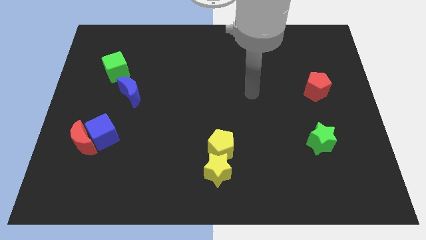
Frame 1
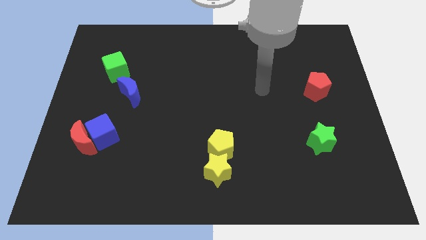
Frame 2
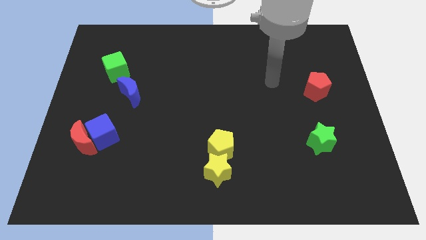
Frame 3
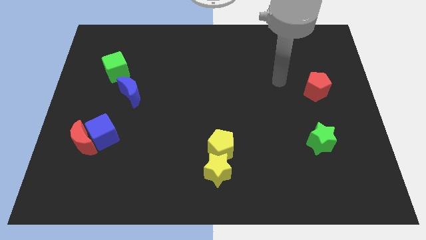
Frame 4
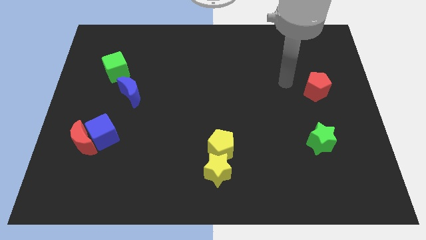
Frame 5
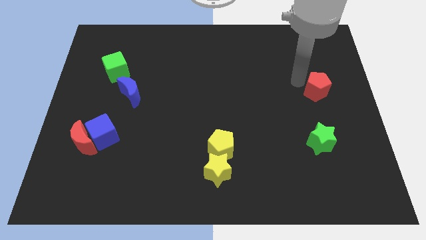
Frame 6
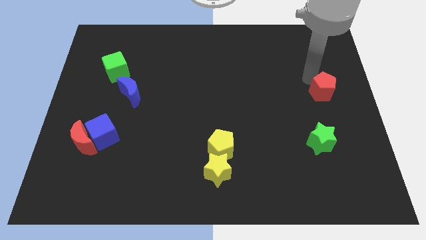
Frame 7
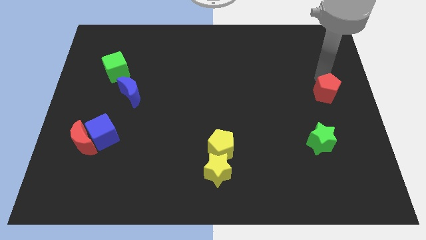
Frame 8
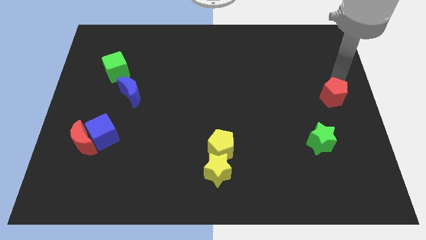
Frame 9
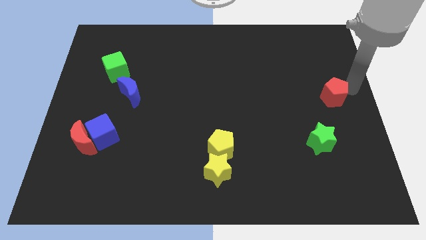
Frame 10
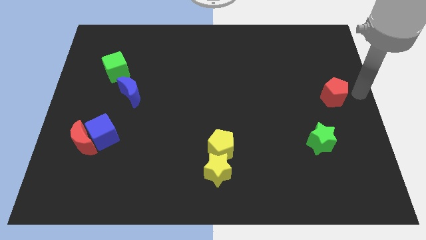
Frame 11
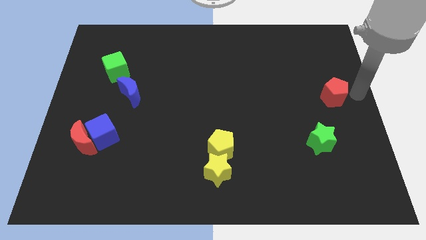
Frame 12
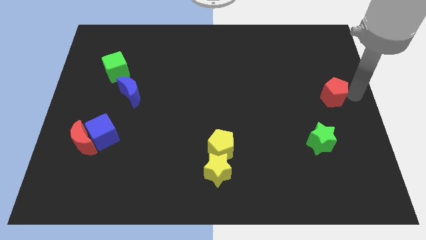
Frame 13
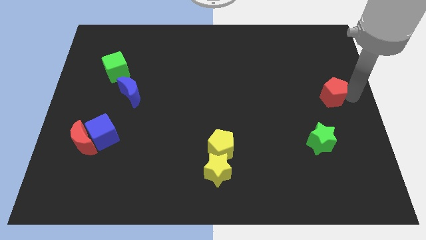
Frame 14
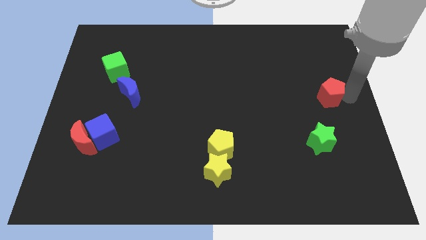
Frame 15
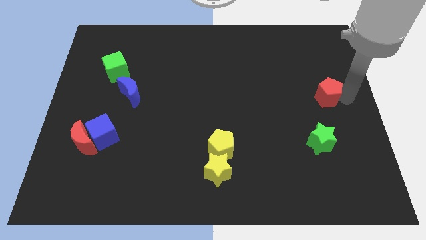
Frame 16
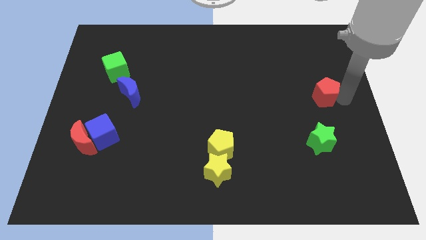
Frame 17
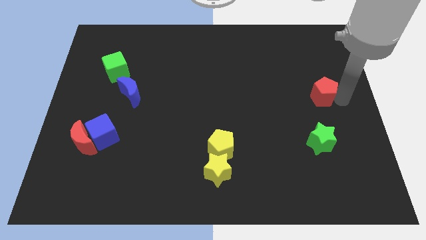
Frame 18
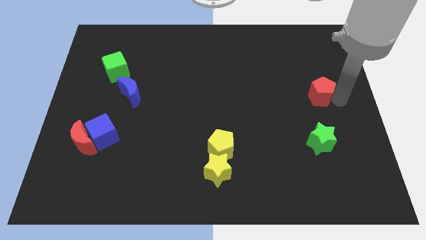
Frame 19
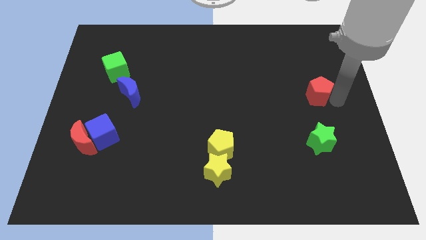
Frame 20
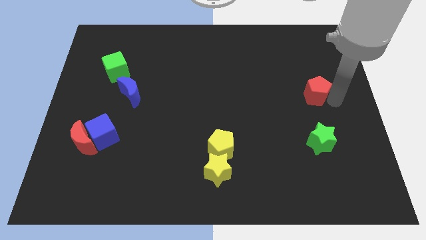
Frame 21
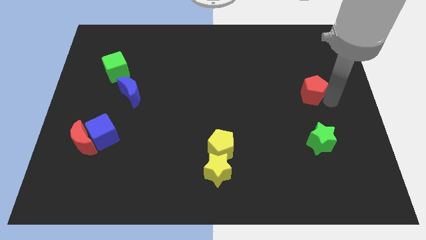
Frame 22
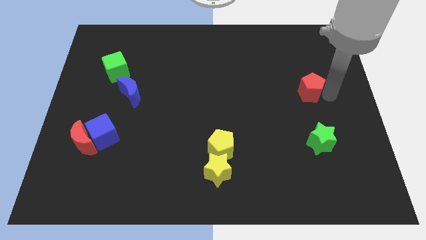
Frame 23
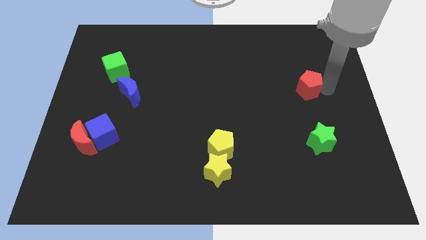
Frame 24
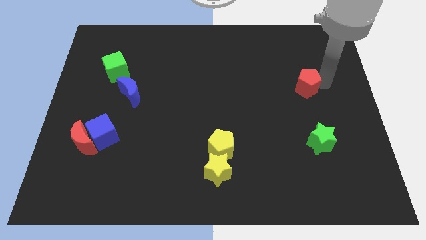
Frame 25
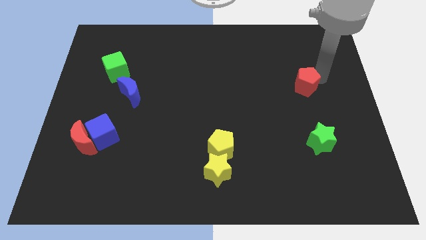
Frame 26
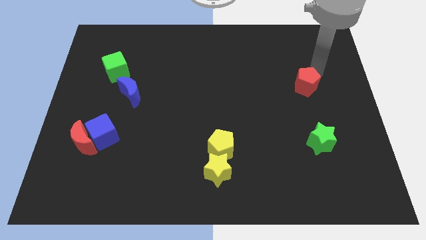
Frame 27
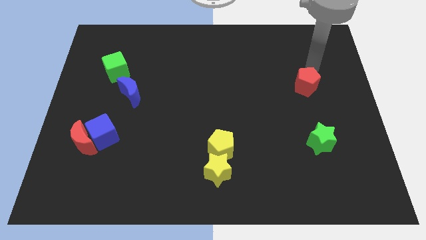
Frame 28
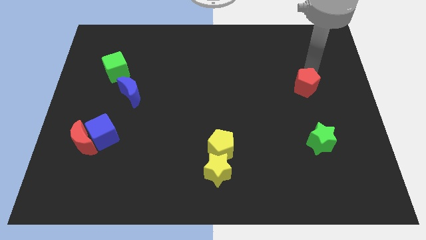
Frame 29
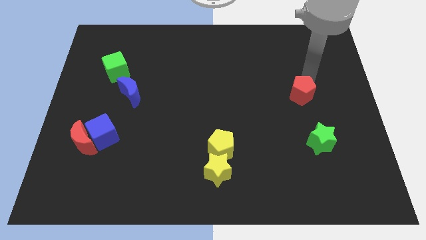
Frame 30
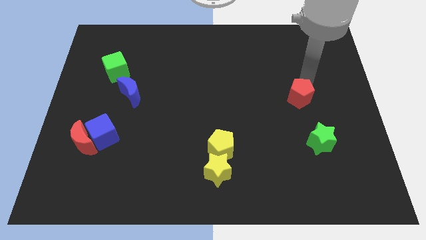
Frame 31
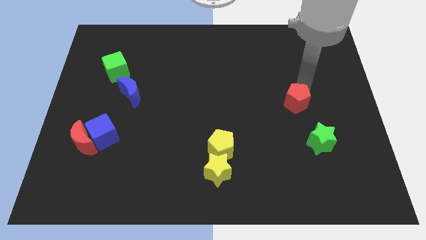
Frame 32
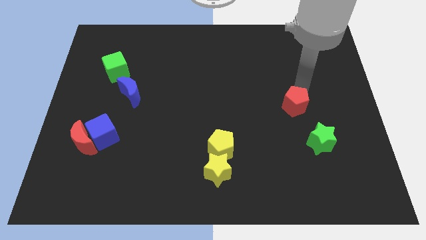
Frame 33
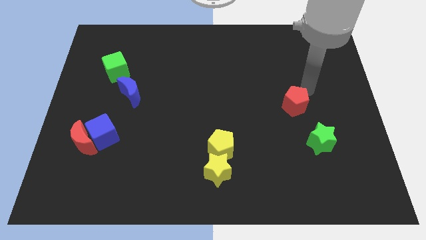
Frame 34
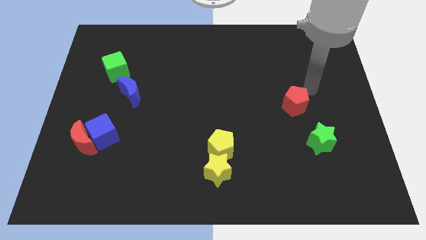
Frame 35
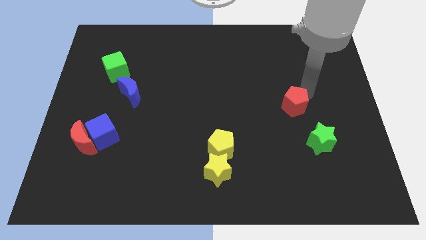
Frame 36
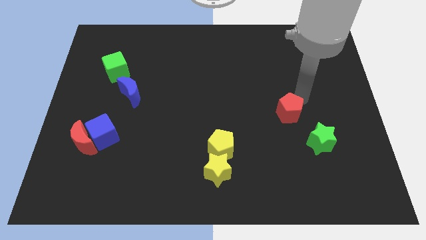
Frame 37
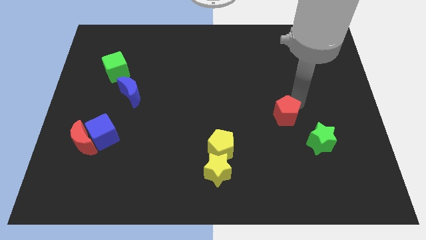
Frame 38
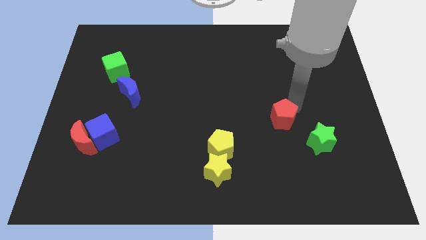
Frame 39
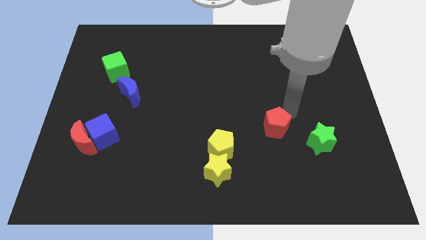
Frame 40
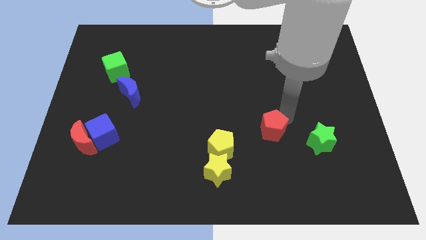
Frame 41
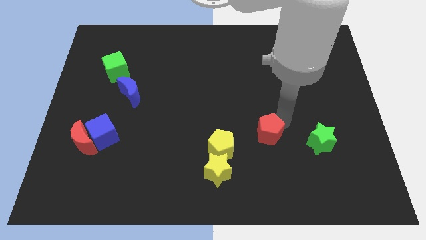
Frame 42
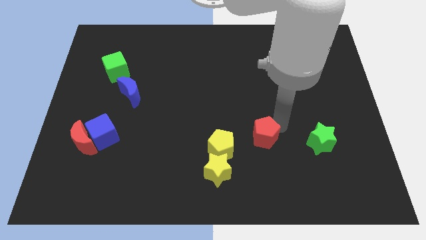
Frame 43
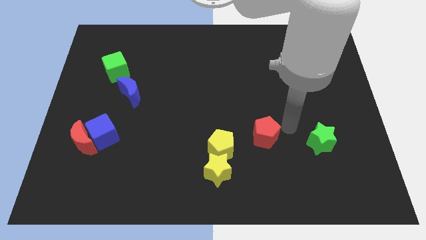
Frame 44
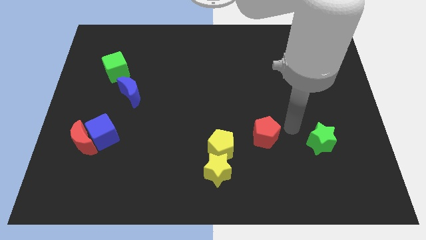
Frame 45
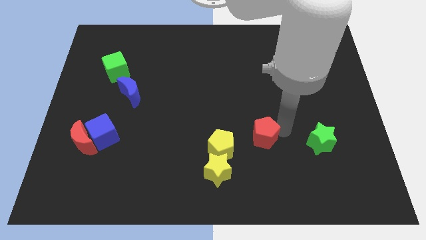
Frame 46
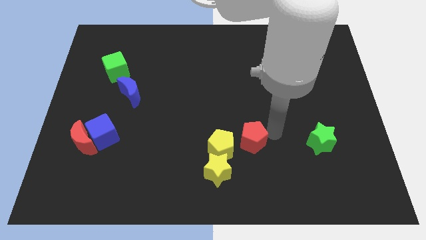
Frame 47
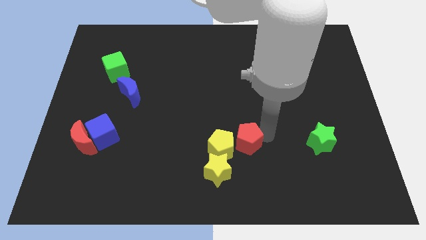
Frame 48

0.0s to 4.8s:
slide the red pentagon close to the yellow pentagon

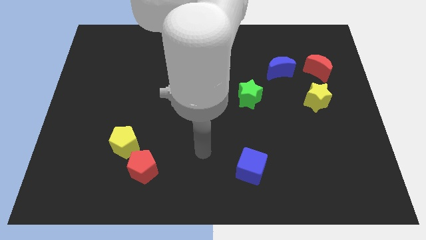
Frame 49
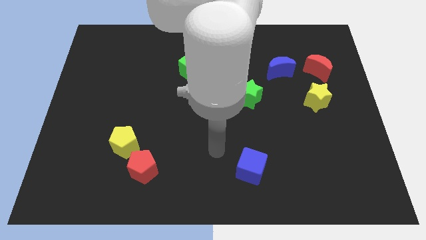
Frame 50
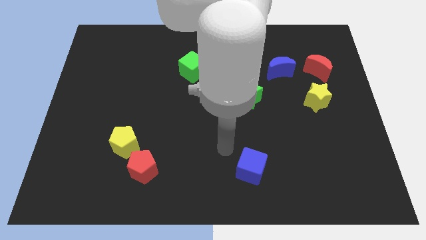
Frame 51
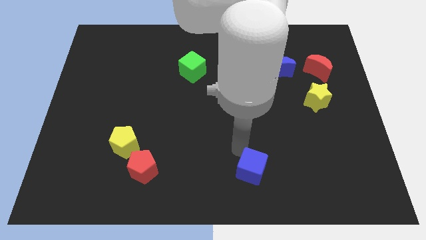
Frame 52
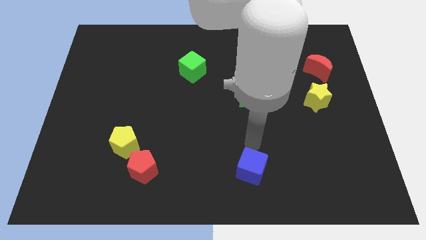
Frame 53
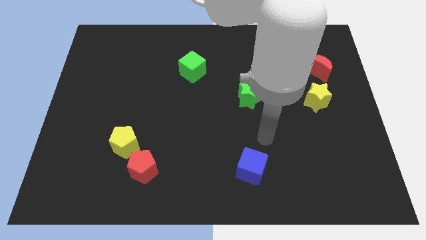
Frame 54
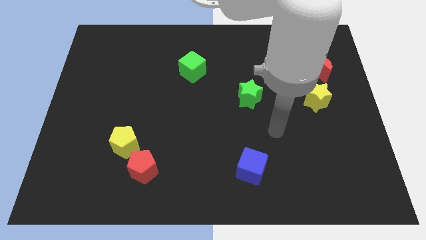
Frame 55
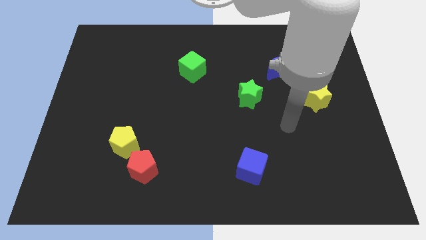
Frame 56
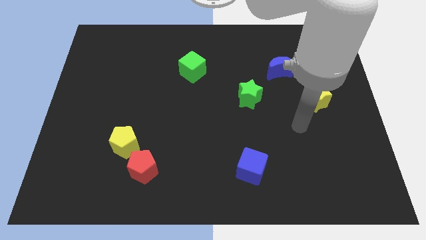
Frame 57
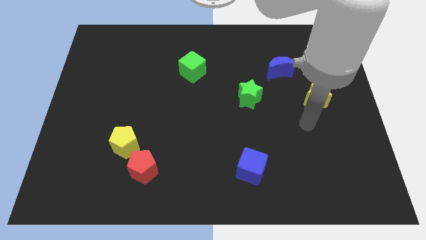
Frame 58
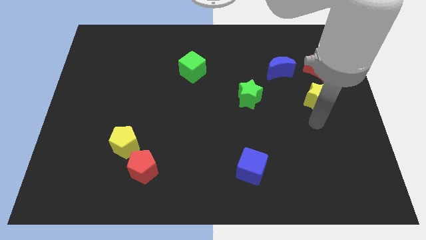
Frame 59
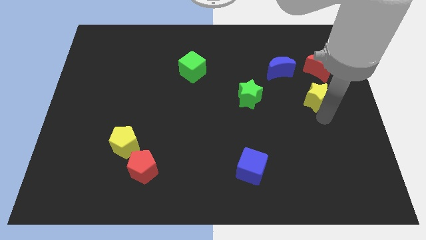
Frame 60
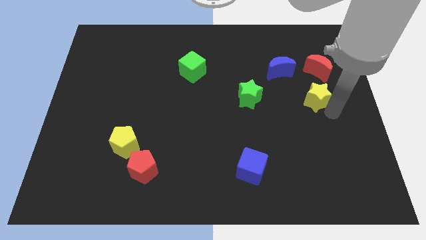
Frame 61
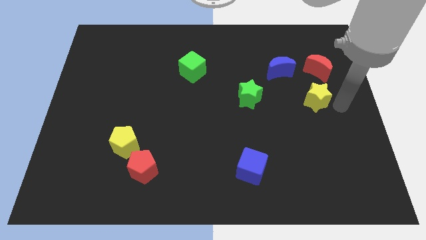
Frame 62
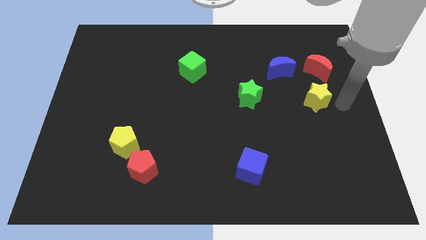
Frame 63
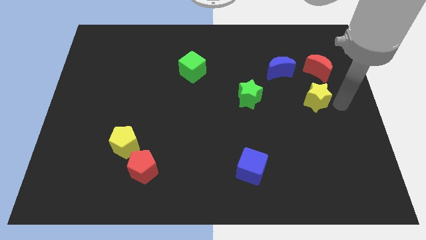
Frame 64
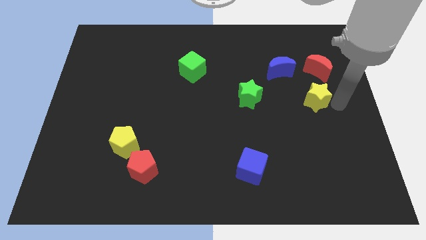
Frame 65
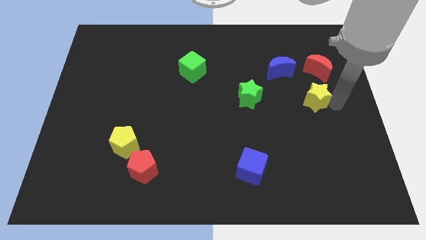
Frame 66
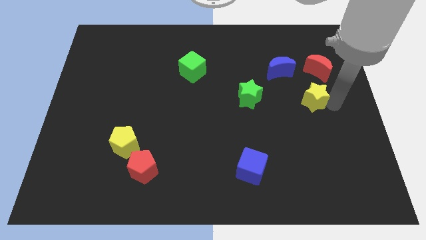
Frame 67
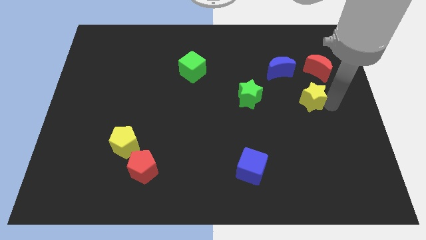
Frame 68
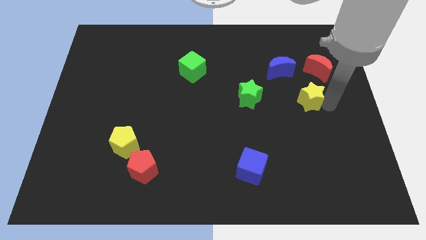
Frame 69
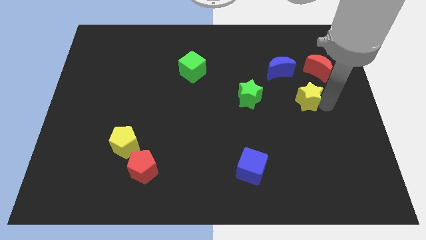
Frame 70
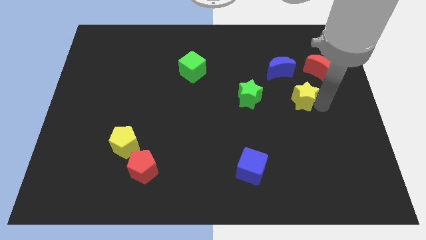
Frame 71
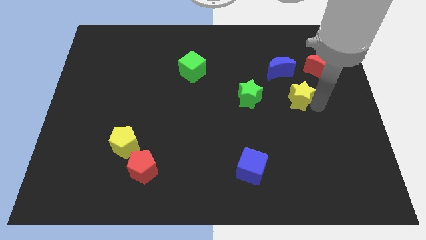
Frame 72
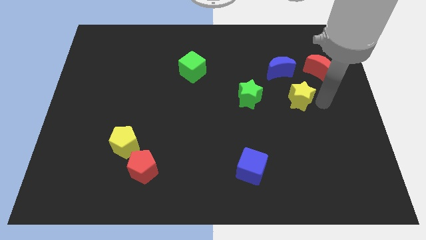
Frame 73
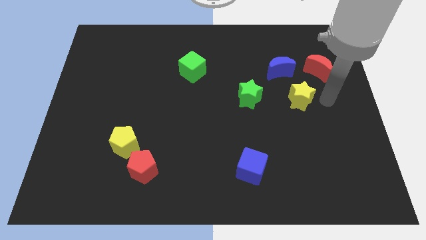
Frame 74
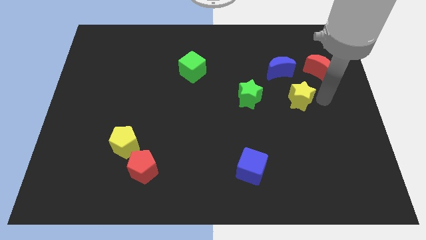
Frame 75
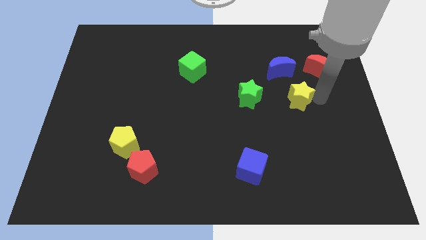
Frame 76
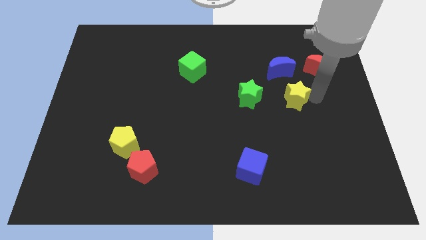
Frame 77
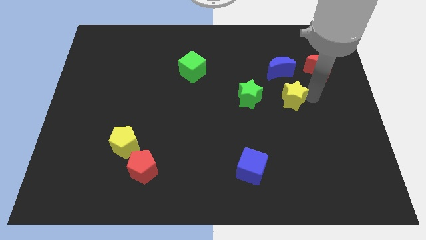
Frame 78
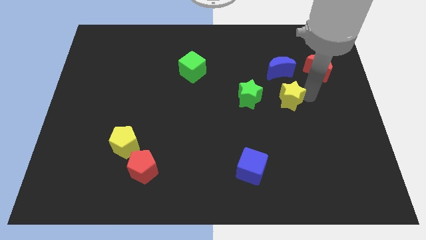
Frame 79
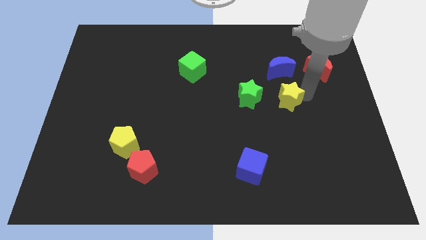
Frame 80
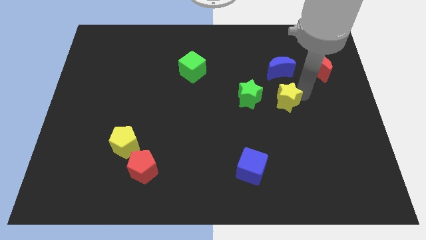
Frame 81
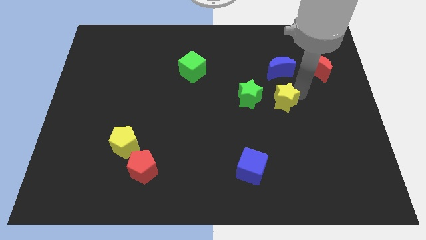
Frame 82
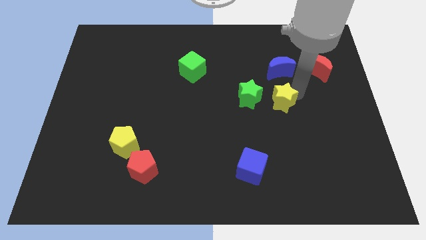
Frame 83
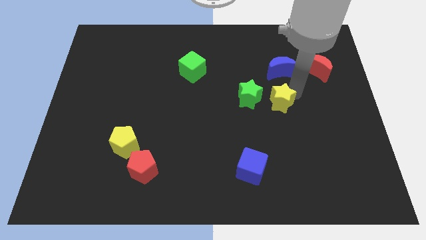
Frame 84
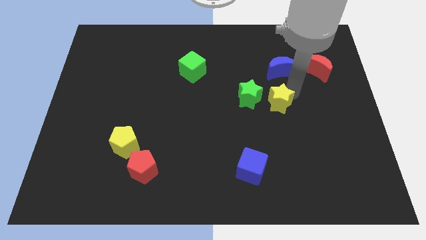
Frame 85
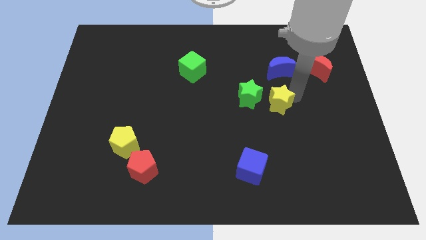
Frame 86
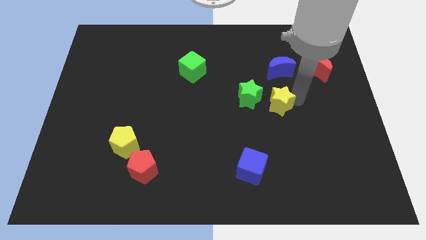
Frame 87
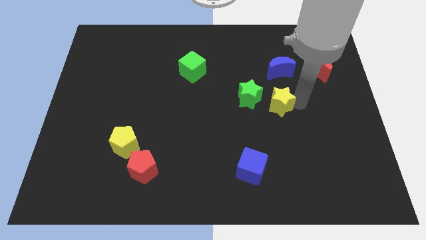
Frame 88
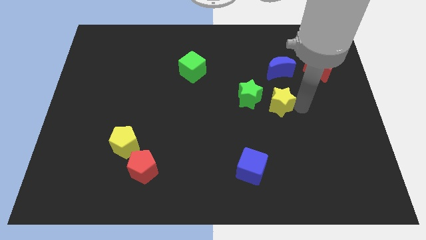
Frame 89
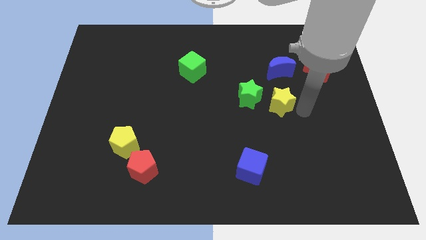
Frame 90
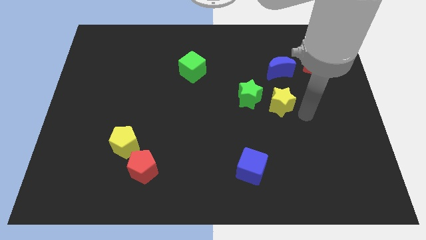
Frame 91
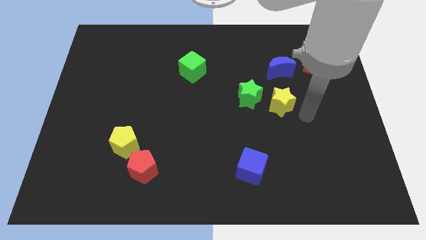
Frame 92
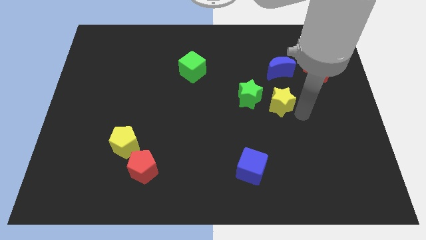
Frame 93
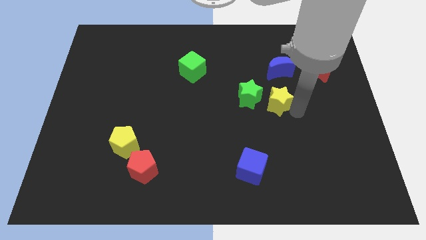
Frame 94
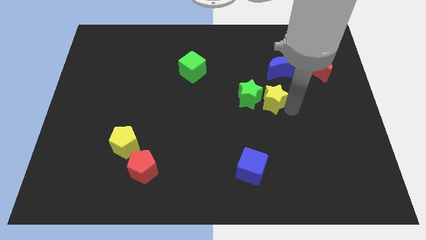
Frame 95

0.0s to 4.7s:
push the yellow star to the green star
